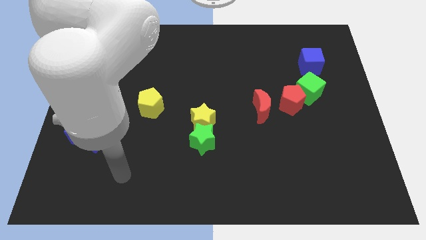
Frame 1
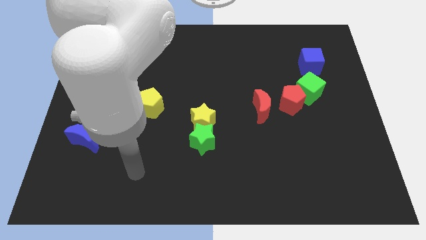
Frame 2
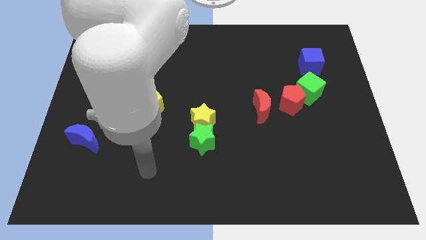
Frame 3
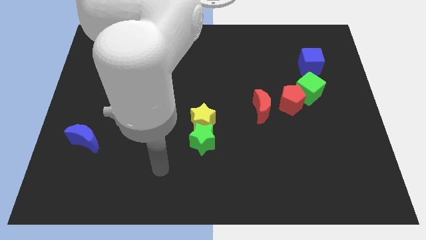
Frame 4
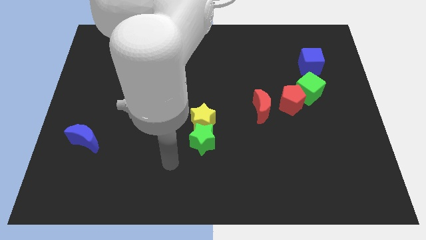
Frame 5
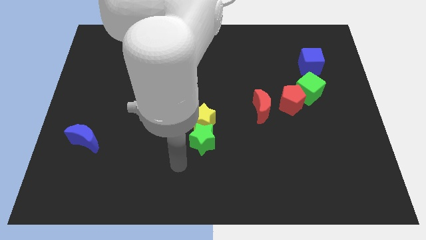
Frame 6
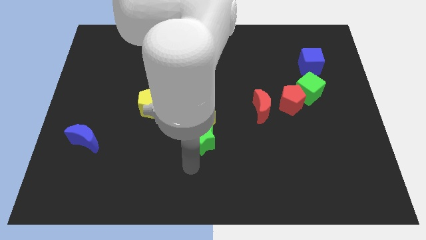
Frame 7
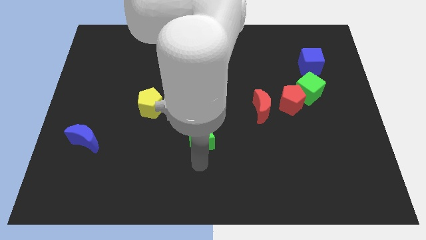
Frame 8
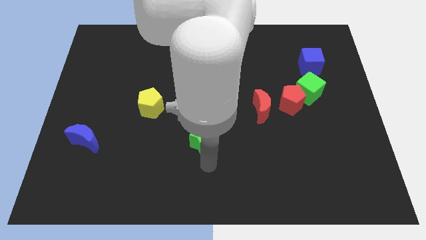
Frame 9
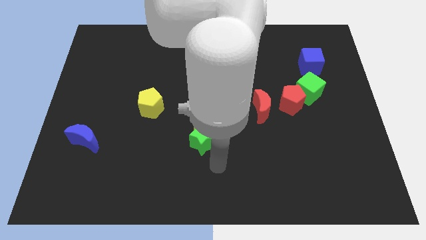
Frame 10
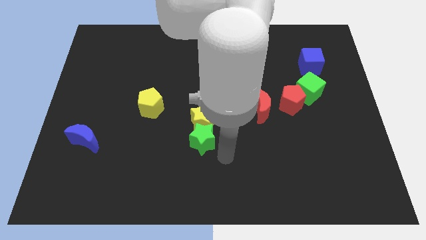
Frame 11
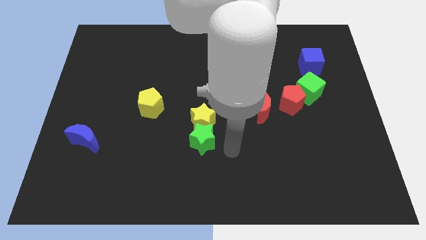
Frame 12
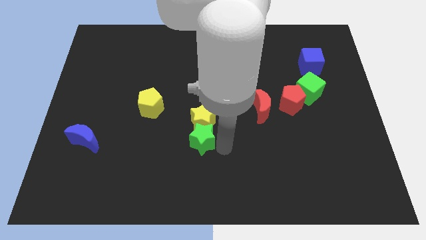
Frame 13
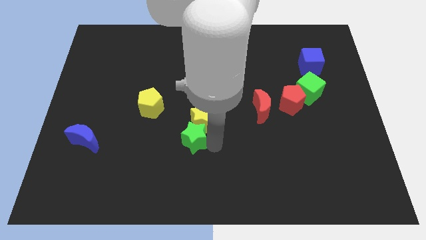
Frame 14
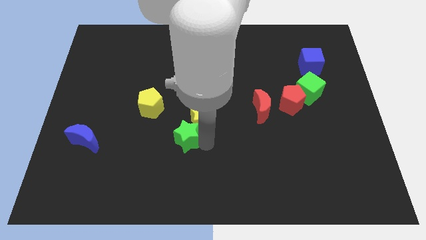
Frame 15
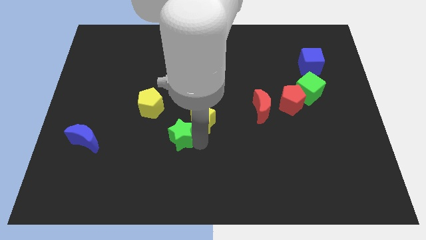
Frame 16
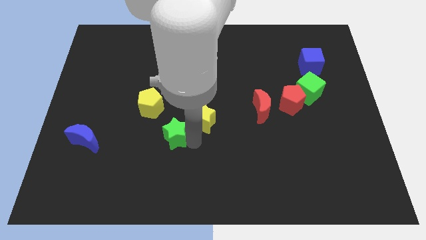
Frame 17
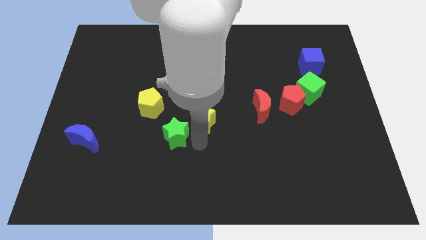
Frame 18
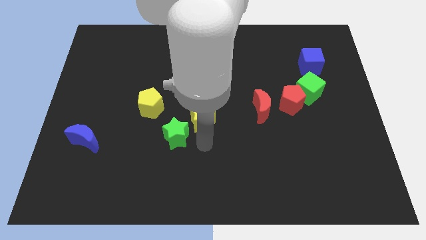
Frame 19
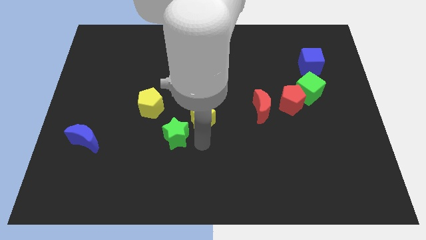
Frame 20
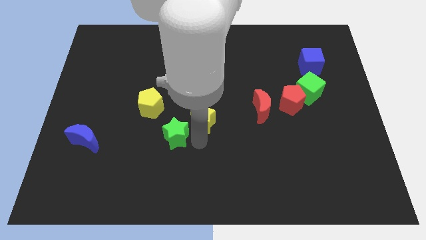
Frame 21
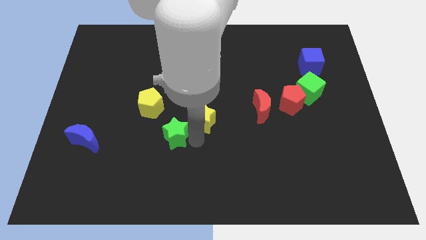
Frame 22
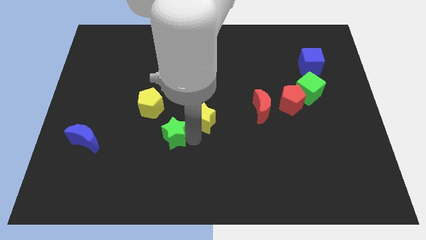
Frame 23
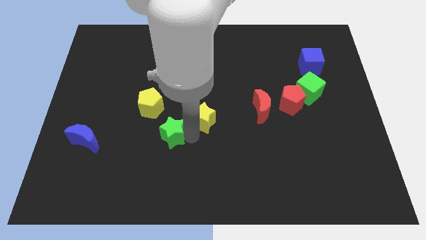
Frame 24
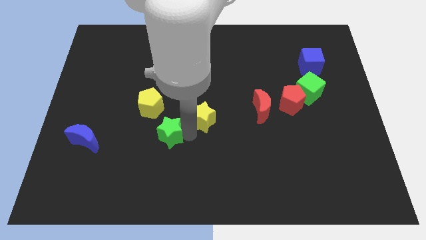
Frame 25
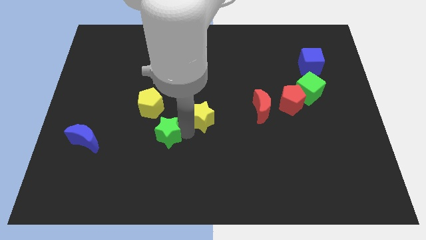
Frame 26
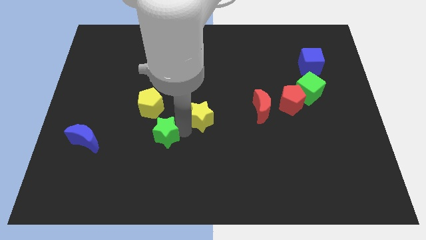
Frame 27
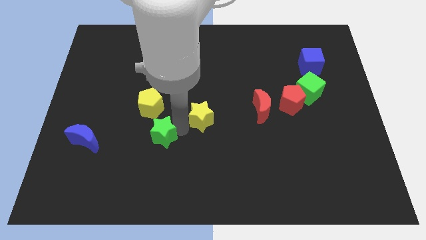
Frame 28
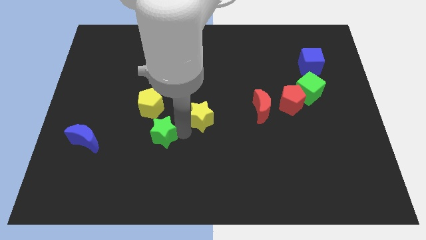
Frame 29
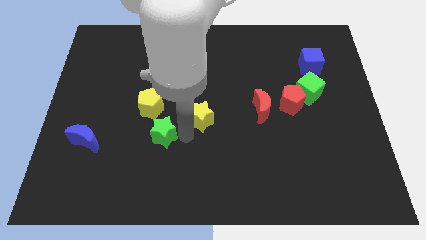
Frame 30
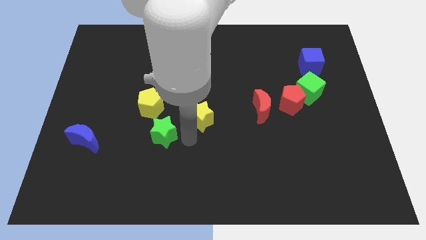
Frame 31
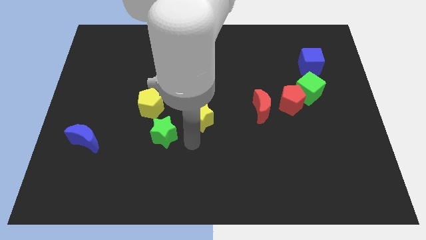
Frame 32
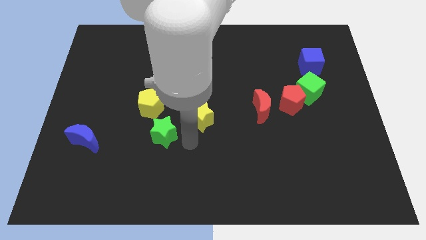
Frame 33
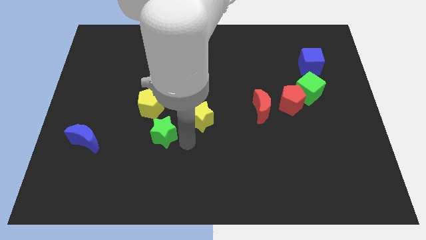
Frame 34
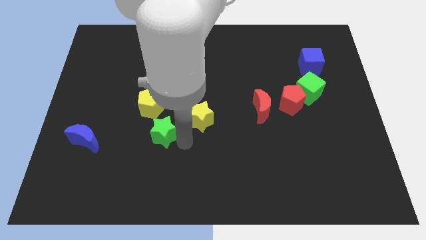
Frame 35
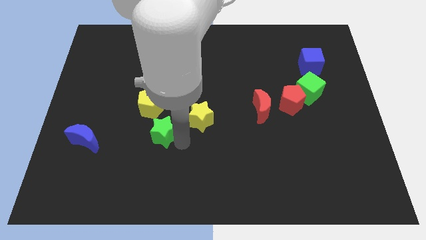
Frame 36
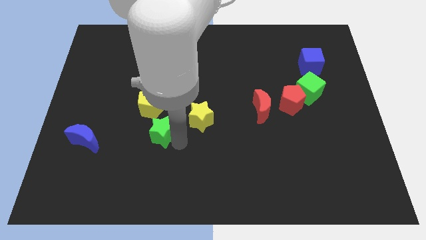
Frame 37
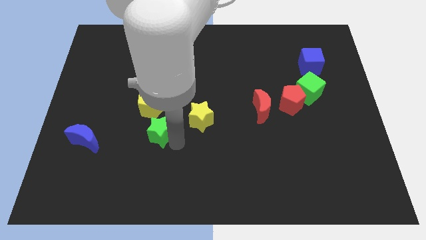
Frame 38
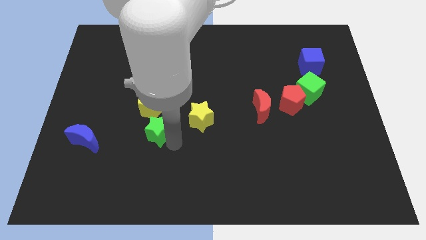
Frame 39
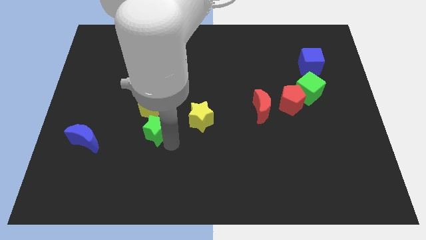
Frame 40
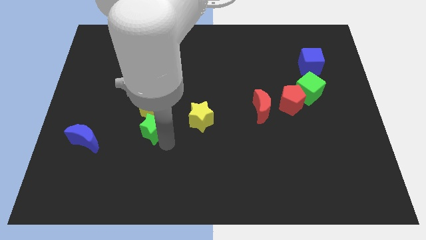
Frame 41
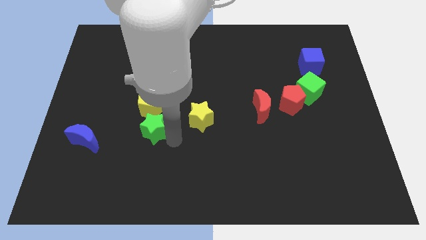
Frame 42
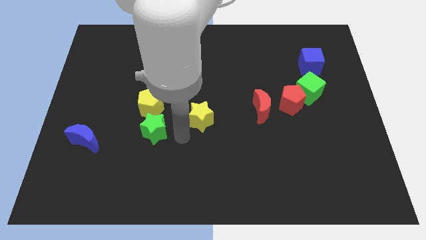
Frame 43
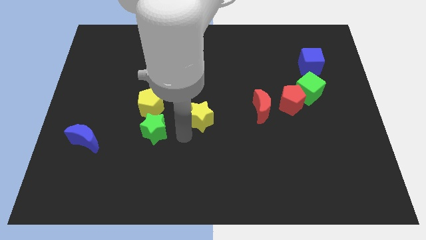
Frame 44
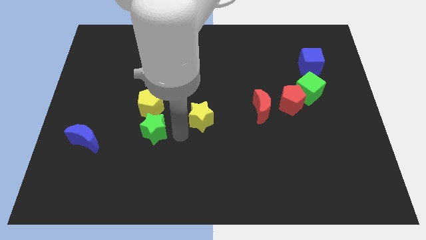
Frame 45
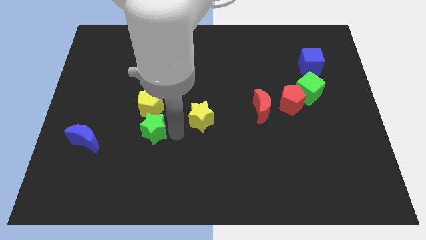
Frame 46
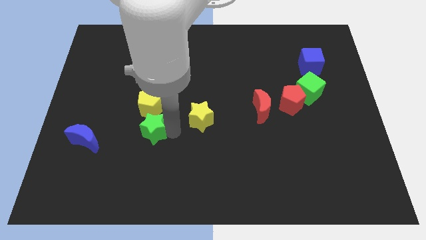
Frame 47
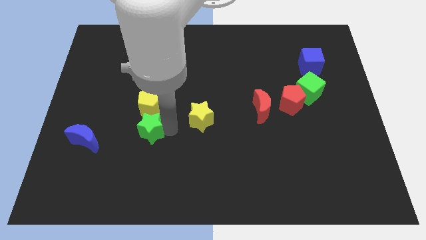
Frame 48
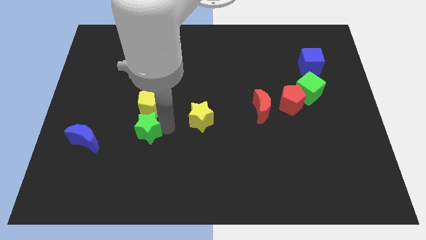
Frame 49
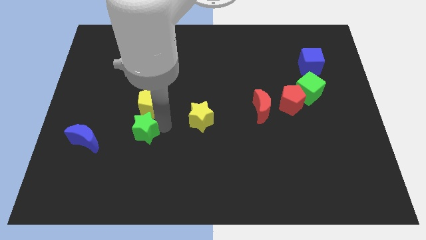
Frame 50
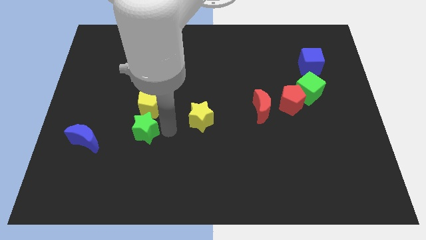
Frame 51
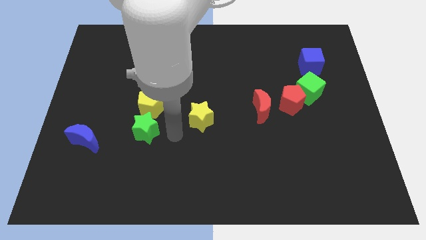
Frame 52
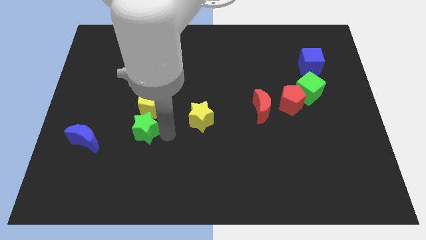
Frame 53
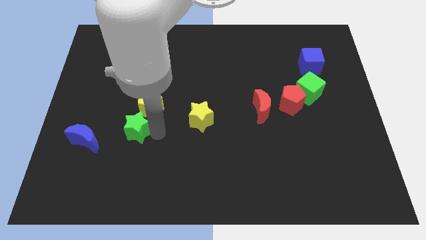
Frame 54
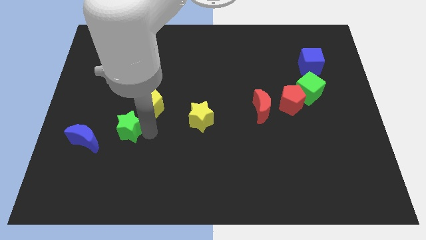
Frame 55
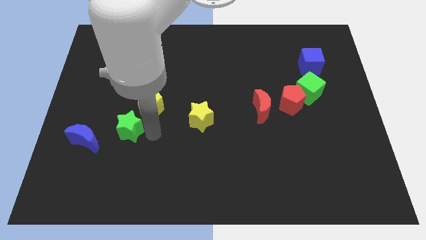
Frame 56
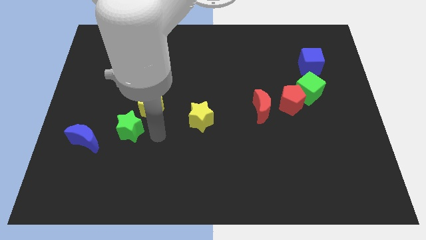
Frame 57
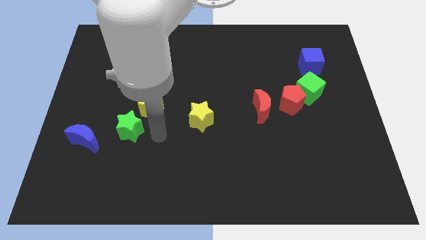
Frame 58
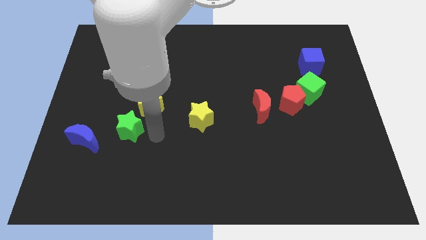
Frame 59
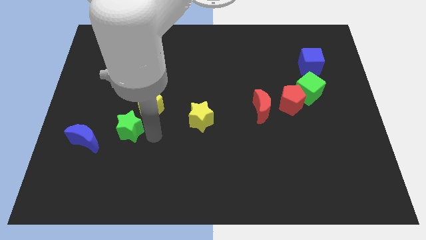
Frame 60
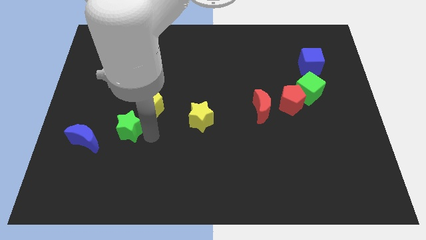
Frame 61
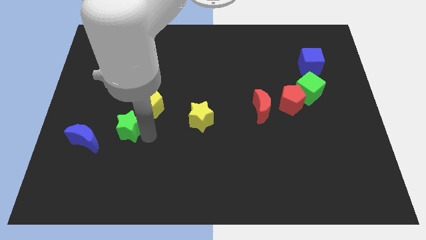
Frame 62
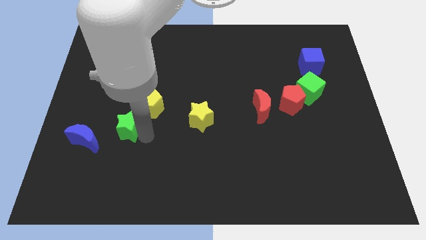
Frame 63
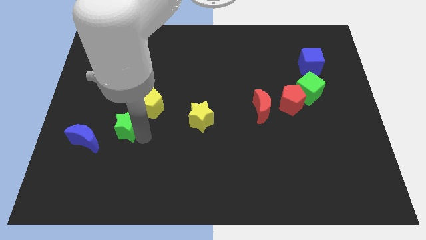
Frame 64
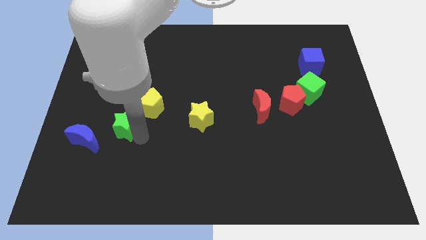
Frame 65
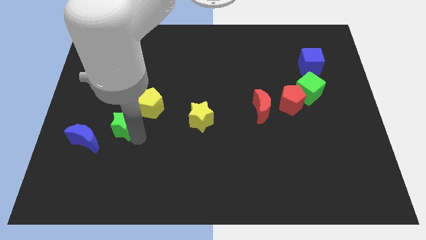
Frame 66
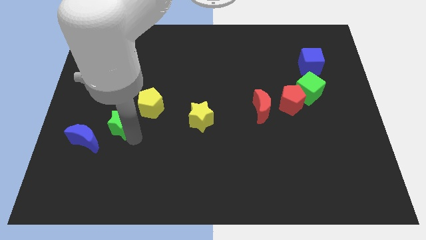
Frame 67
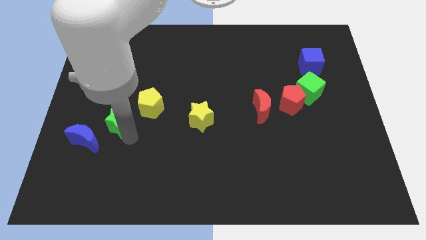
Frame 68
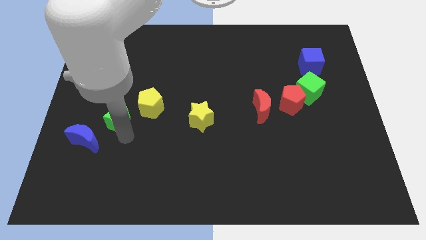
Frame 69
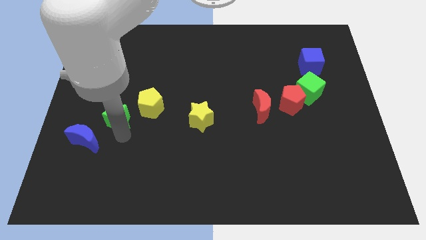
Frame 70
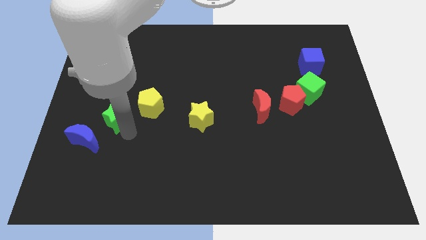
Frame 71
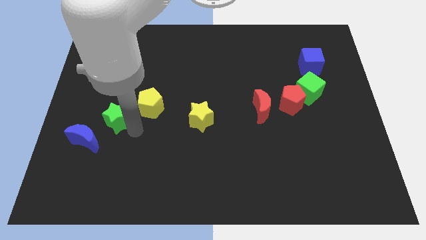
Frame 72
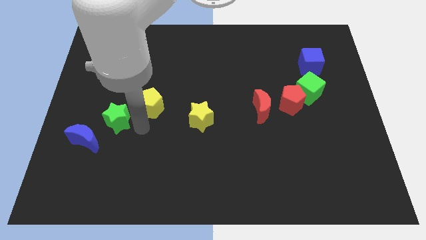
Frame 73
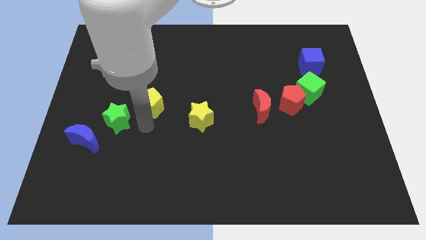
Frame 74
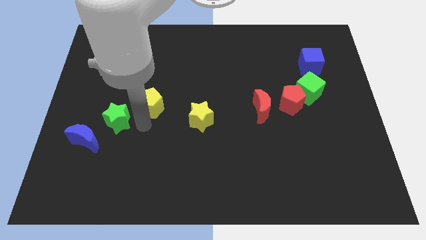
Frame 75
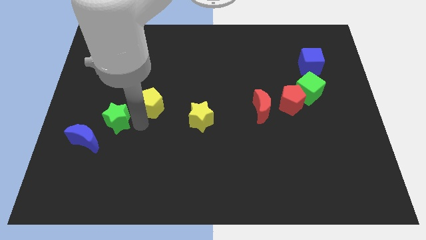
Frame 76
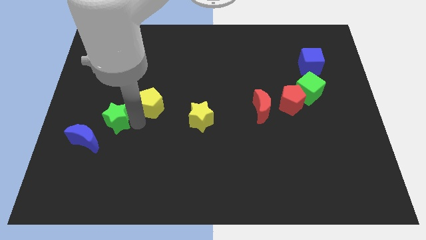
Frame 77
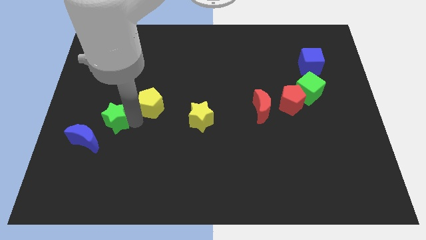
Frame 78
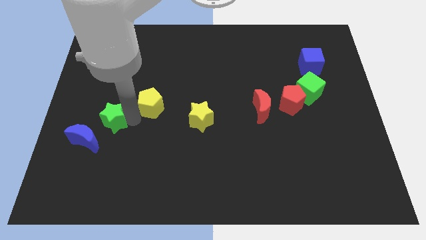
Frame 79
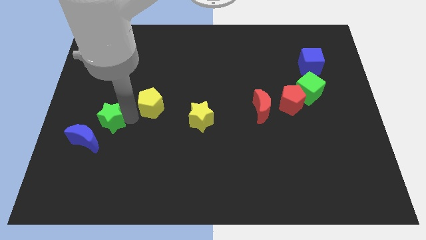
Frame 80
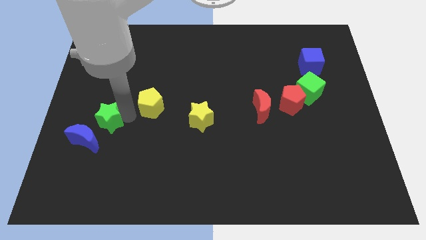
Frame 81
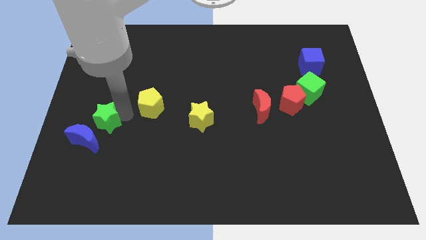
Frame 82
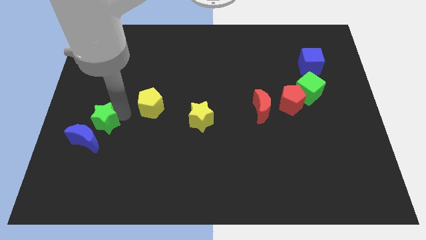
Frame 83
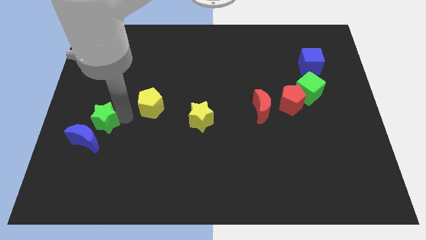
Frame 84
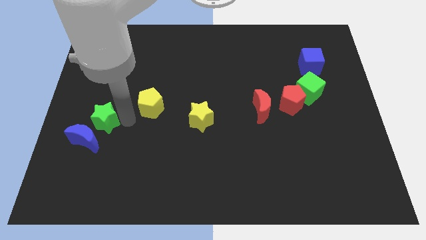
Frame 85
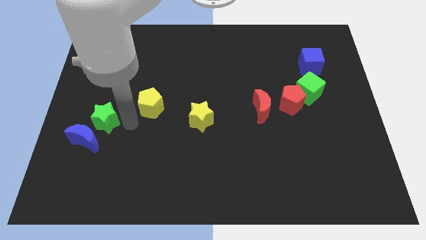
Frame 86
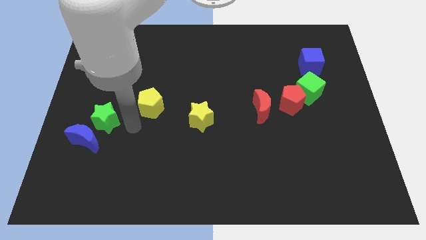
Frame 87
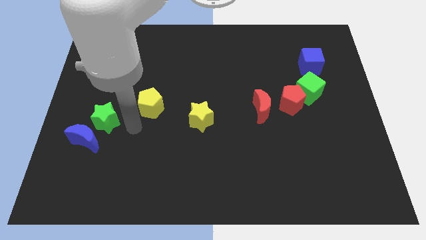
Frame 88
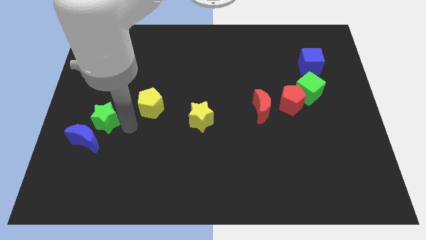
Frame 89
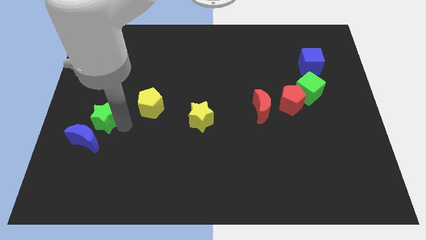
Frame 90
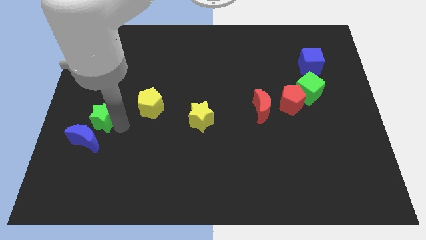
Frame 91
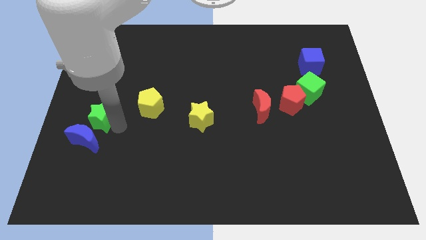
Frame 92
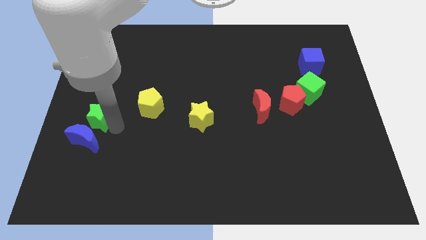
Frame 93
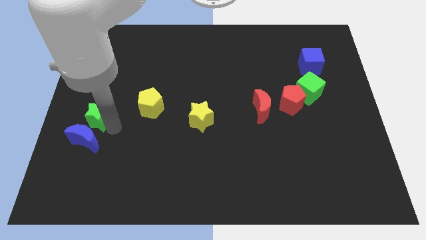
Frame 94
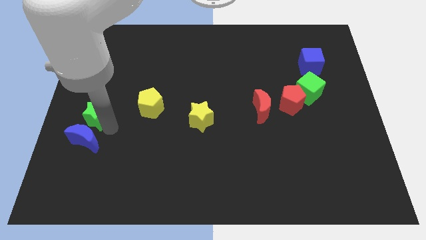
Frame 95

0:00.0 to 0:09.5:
push the green star to the left side
